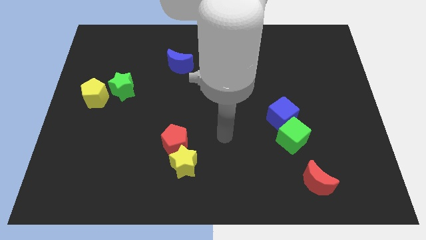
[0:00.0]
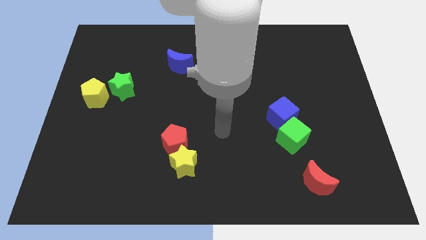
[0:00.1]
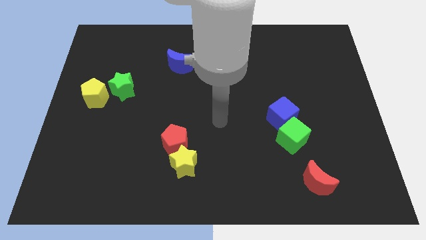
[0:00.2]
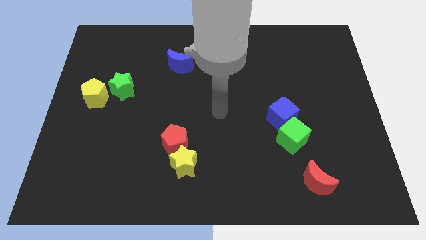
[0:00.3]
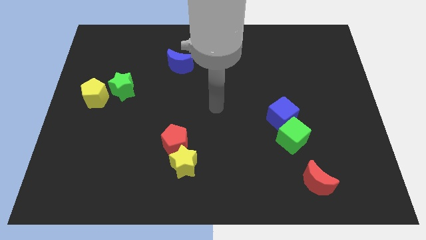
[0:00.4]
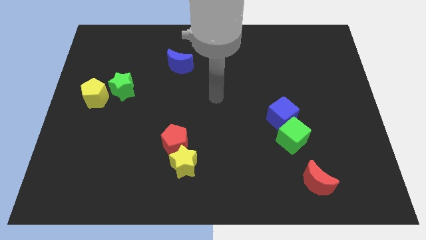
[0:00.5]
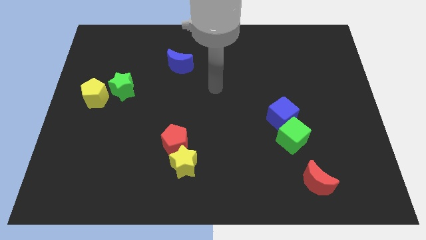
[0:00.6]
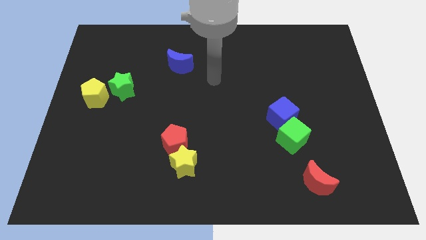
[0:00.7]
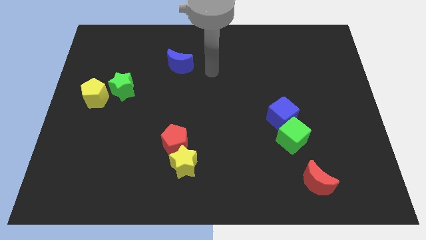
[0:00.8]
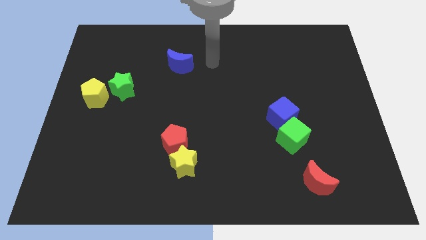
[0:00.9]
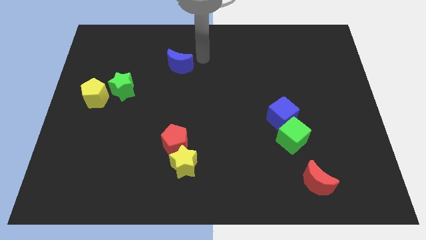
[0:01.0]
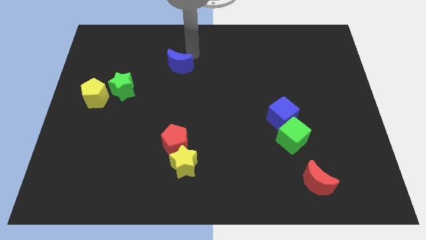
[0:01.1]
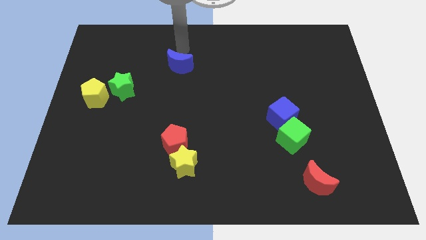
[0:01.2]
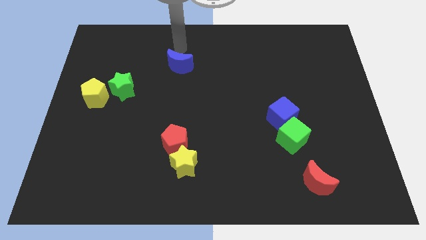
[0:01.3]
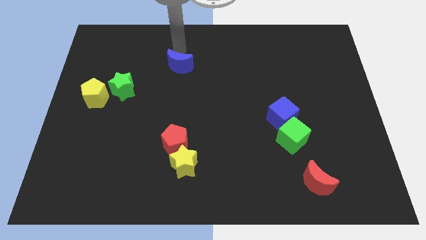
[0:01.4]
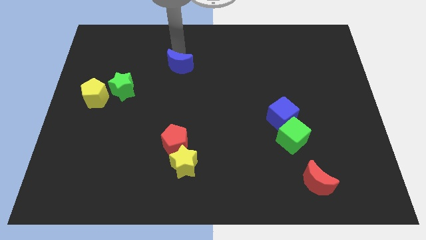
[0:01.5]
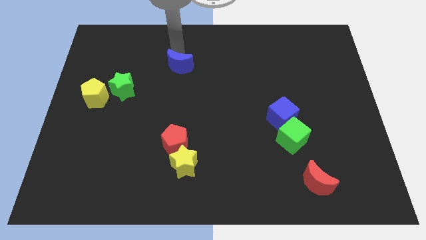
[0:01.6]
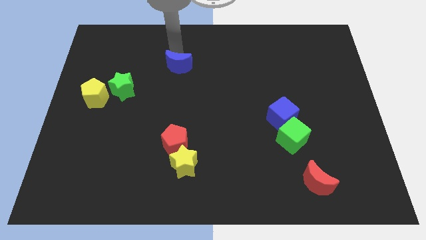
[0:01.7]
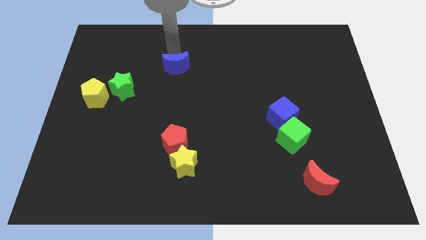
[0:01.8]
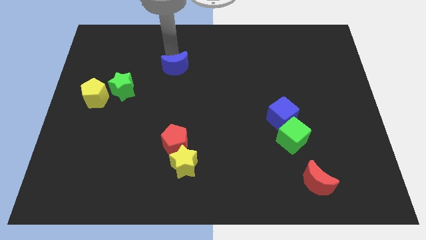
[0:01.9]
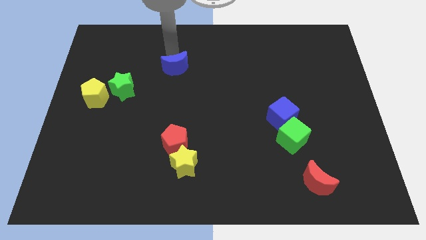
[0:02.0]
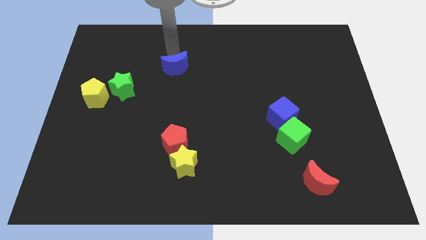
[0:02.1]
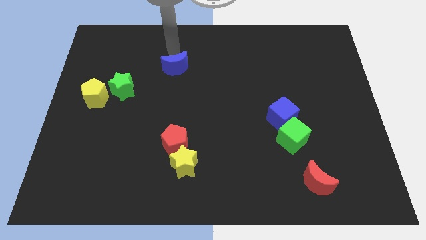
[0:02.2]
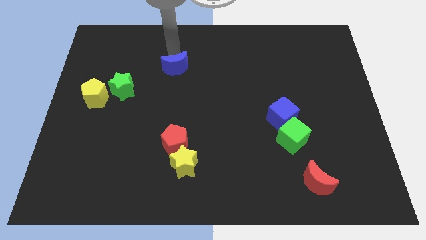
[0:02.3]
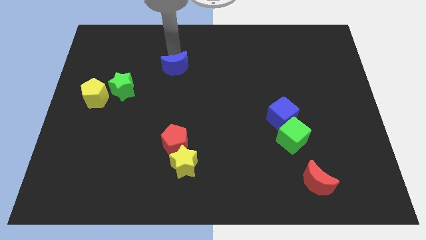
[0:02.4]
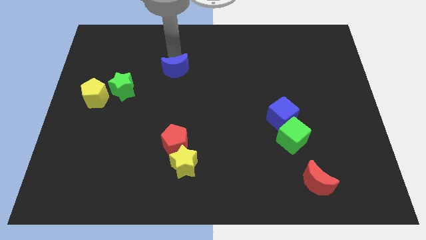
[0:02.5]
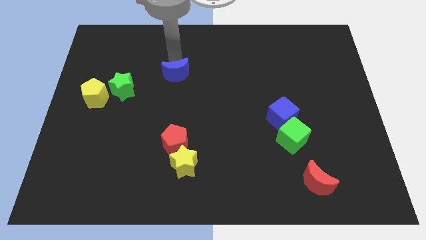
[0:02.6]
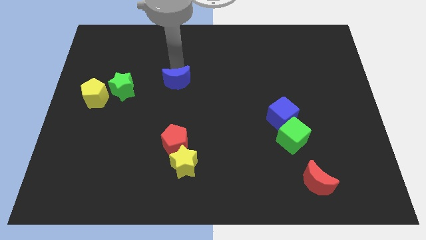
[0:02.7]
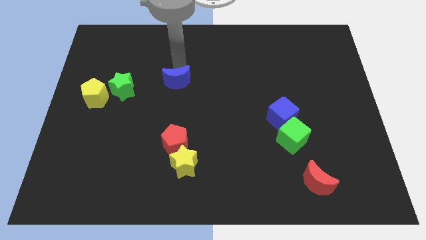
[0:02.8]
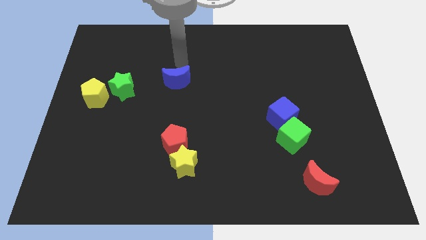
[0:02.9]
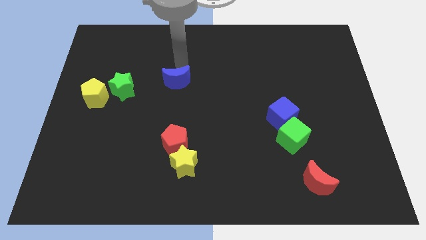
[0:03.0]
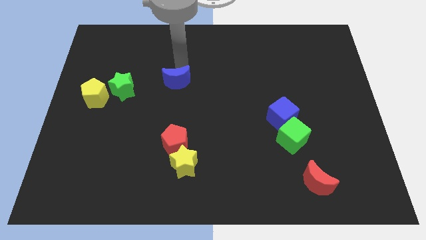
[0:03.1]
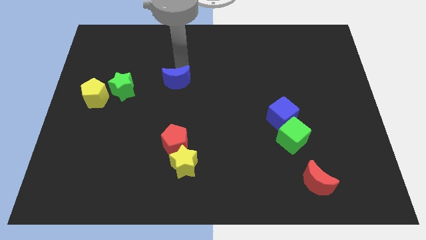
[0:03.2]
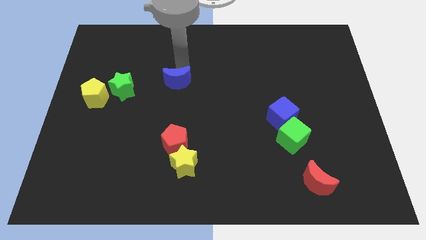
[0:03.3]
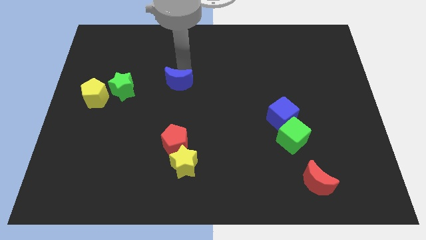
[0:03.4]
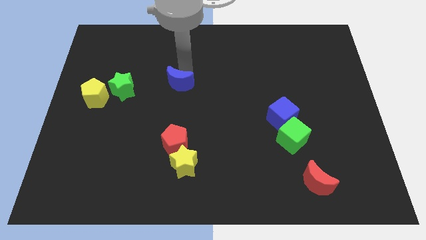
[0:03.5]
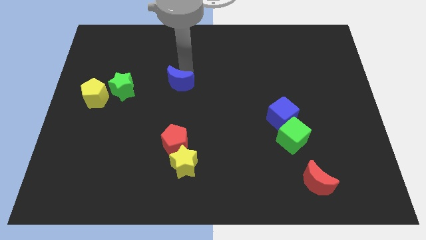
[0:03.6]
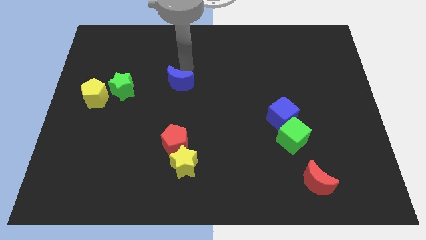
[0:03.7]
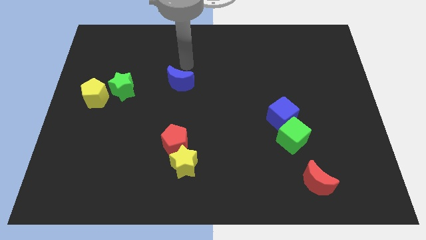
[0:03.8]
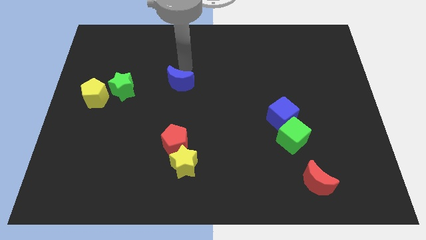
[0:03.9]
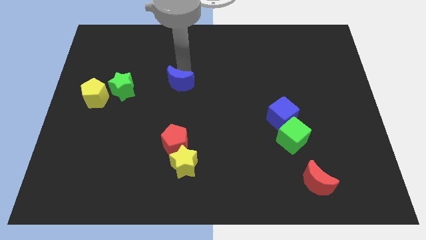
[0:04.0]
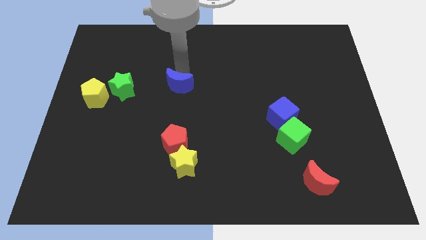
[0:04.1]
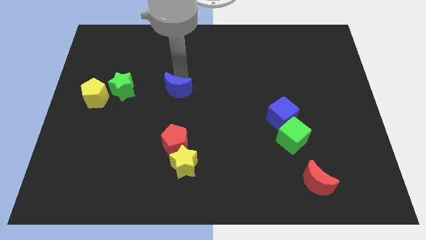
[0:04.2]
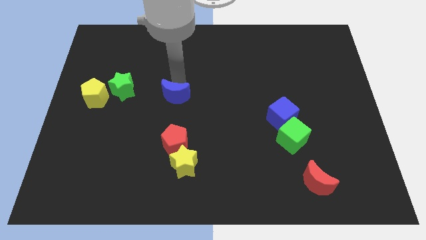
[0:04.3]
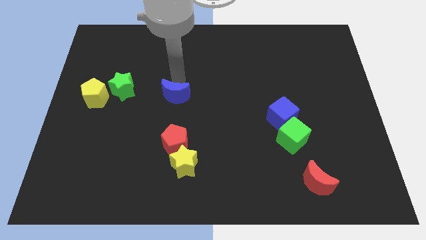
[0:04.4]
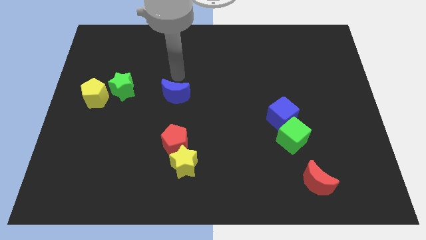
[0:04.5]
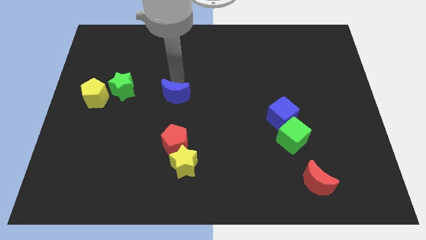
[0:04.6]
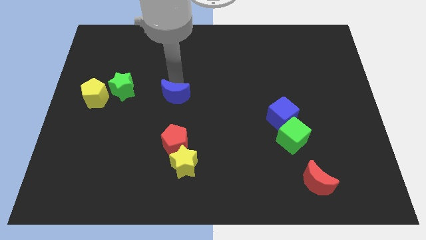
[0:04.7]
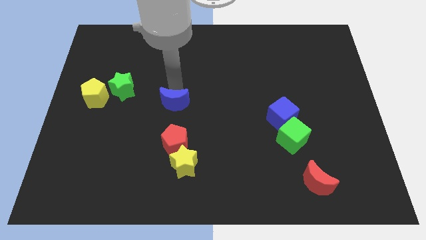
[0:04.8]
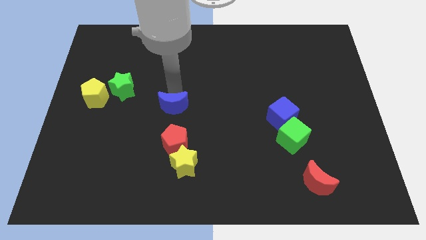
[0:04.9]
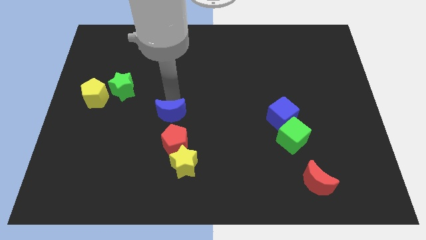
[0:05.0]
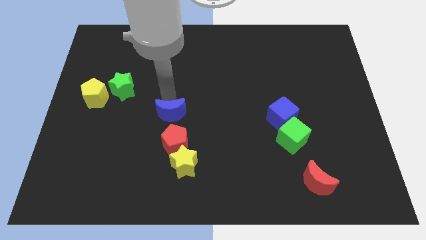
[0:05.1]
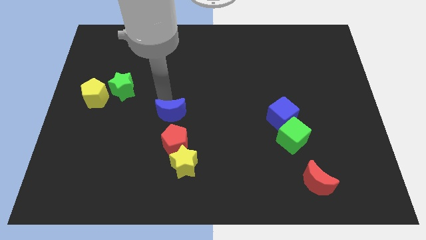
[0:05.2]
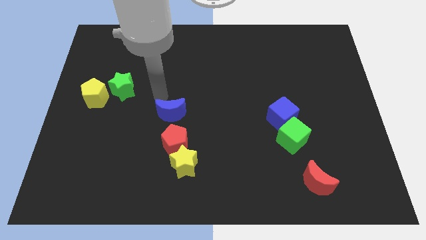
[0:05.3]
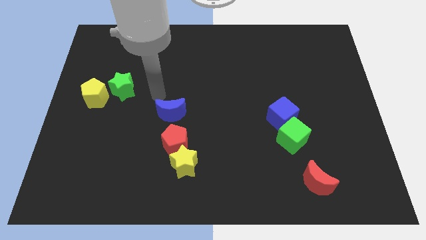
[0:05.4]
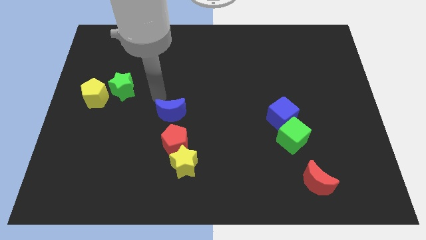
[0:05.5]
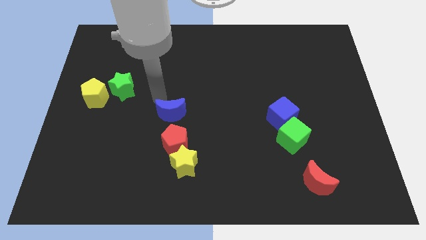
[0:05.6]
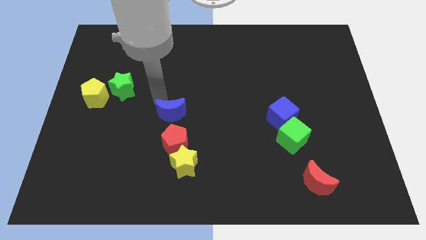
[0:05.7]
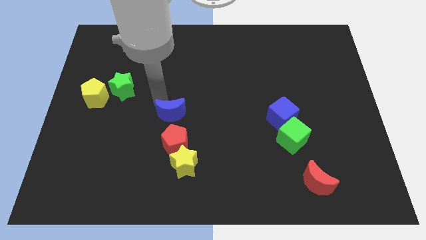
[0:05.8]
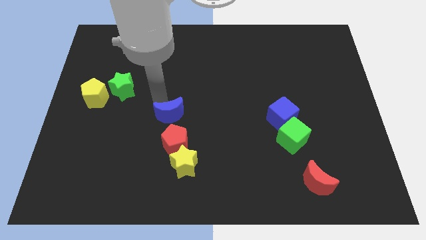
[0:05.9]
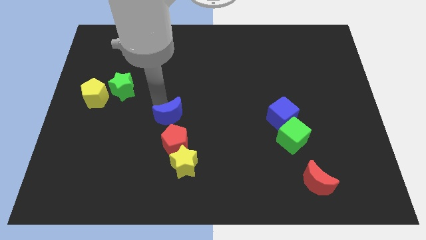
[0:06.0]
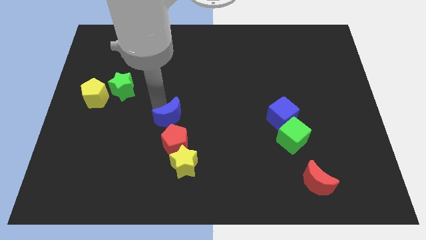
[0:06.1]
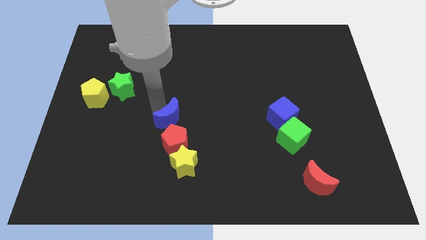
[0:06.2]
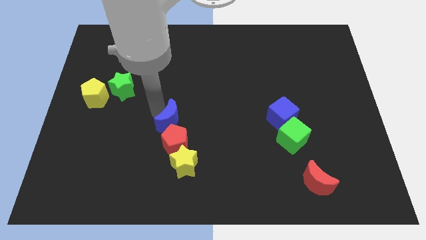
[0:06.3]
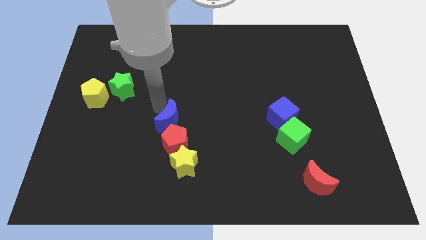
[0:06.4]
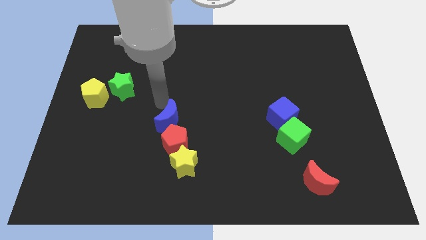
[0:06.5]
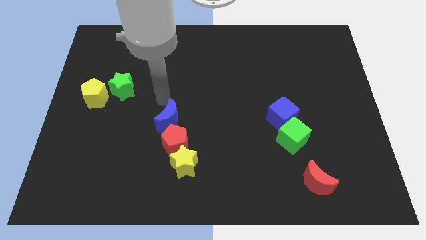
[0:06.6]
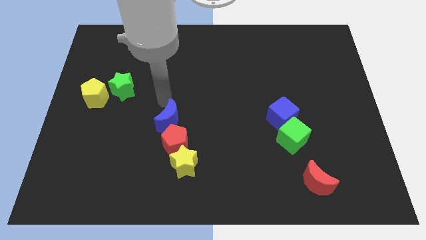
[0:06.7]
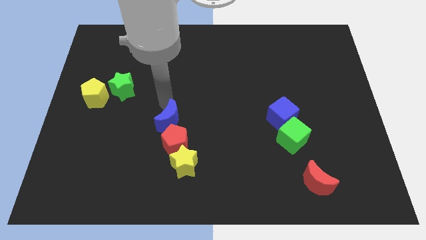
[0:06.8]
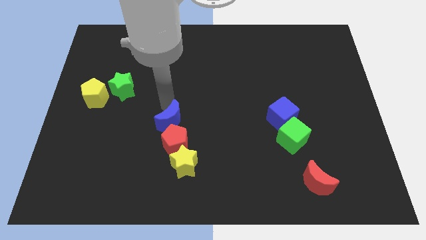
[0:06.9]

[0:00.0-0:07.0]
move the blue moon towards the red pentagon
